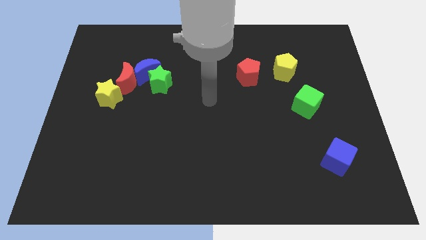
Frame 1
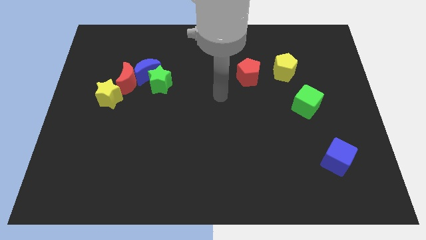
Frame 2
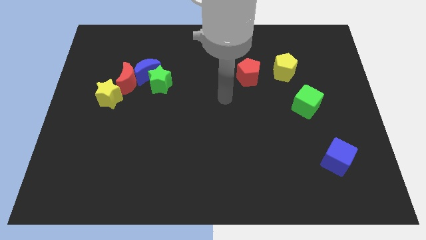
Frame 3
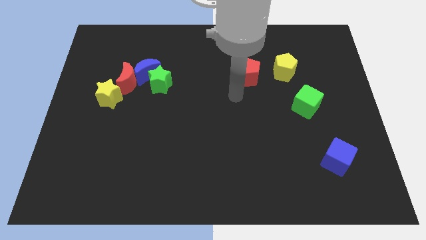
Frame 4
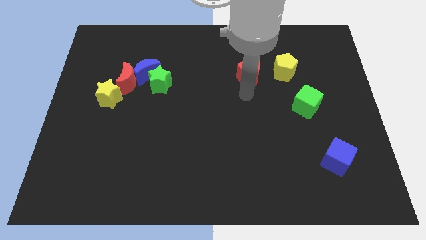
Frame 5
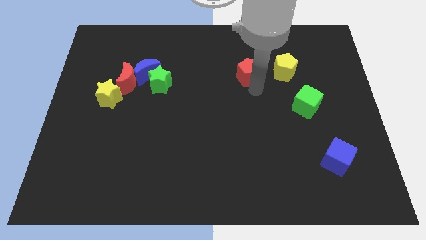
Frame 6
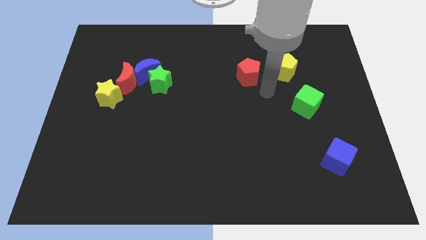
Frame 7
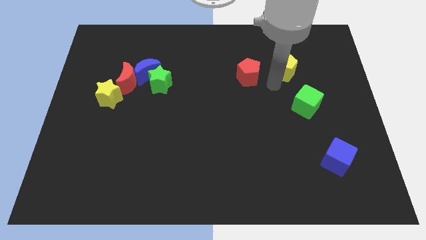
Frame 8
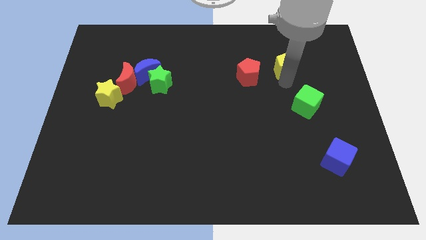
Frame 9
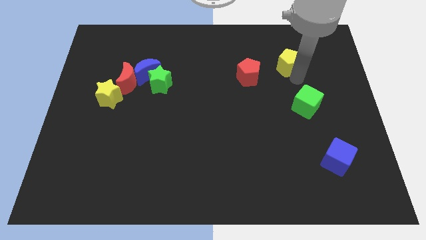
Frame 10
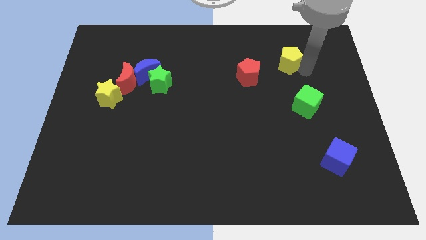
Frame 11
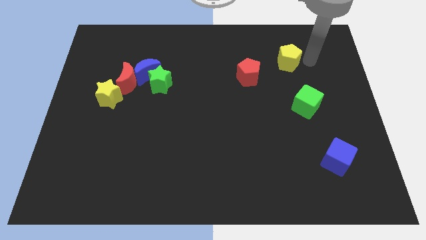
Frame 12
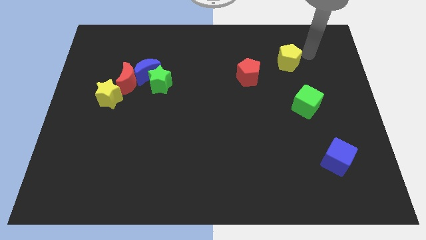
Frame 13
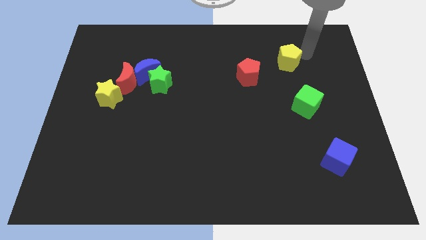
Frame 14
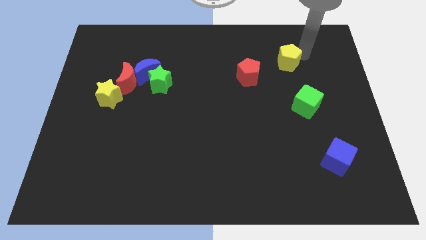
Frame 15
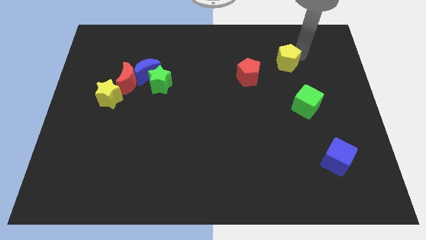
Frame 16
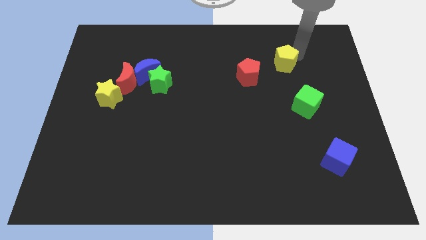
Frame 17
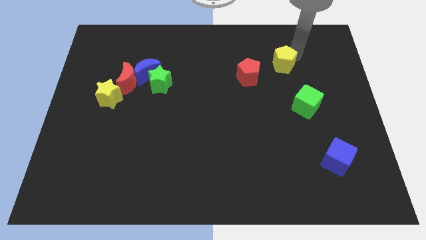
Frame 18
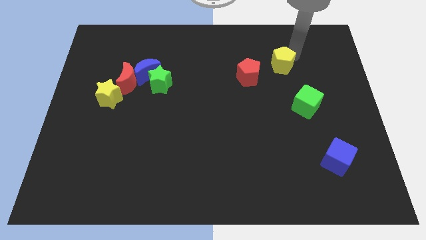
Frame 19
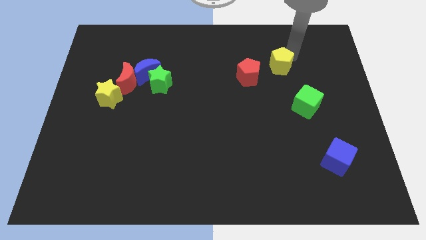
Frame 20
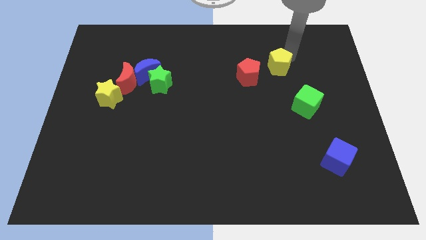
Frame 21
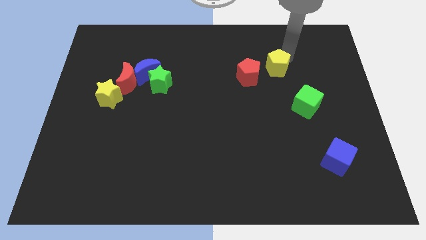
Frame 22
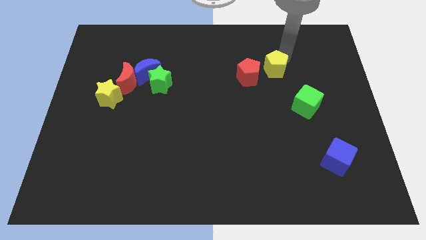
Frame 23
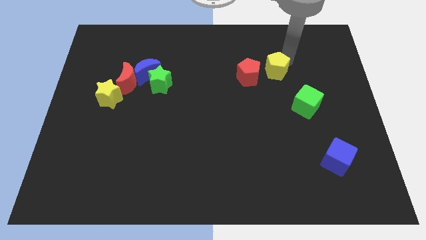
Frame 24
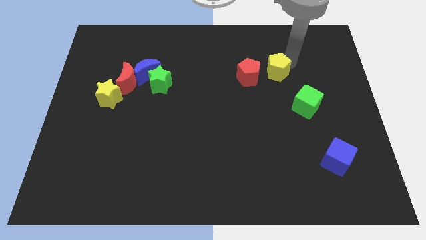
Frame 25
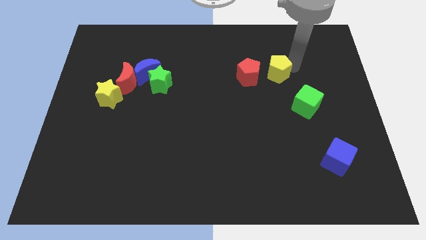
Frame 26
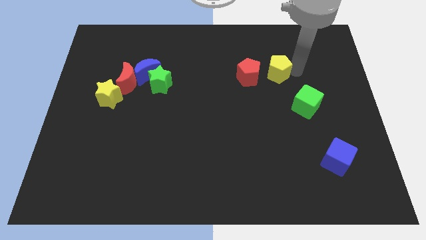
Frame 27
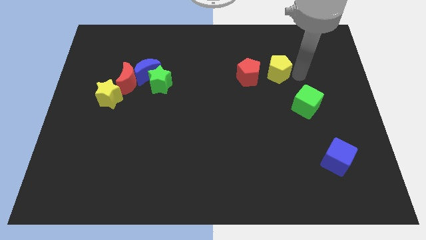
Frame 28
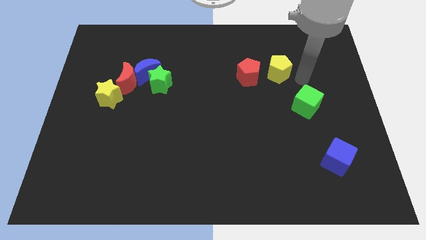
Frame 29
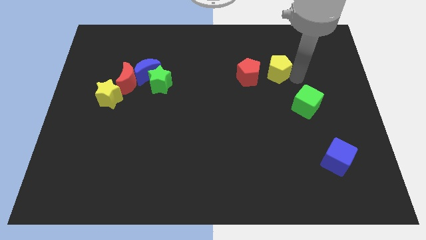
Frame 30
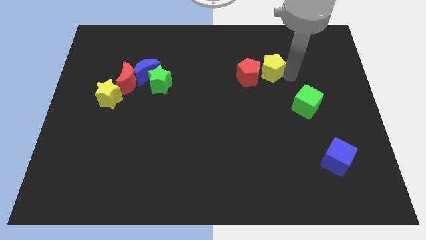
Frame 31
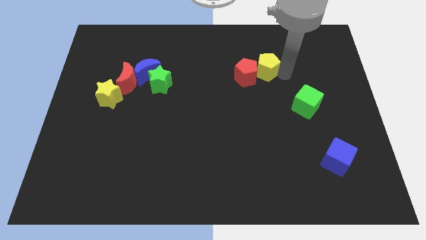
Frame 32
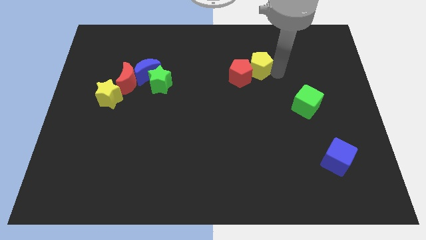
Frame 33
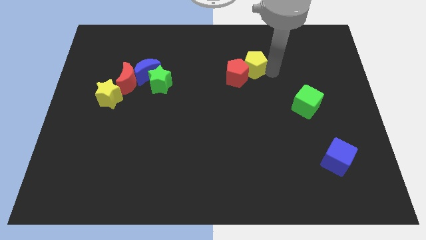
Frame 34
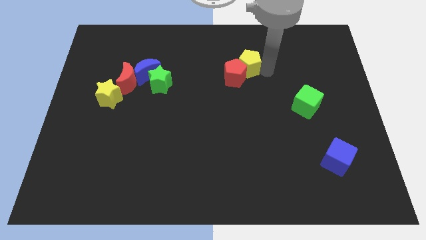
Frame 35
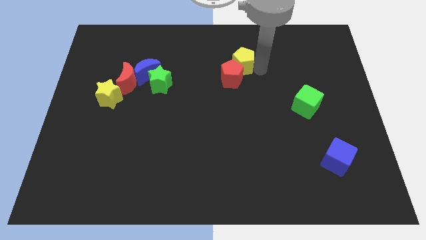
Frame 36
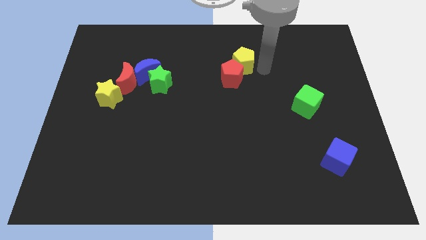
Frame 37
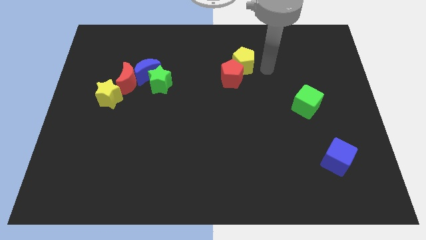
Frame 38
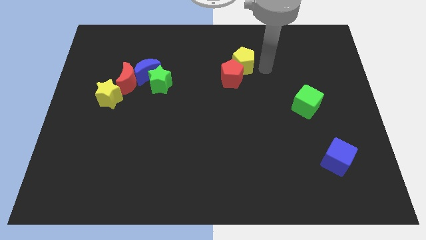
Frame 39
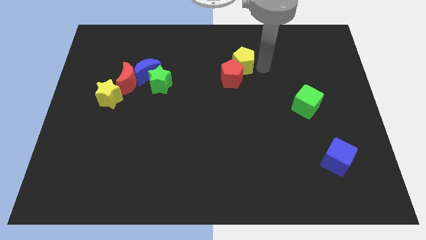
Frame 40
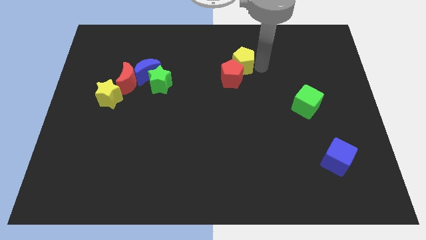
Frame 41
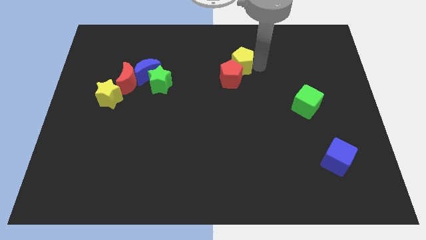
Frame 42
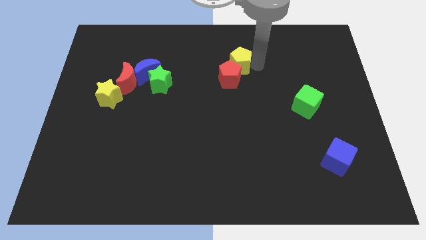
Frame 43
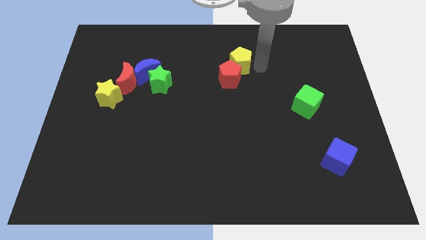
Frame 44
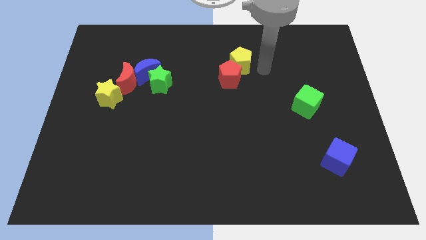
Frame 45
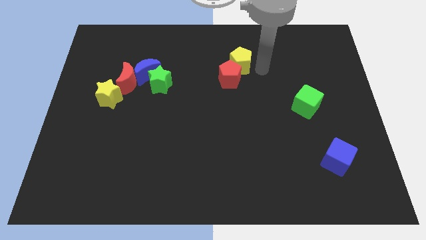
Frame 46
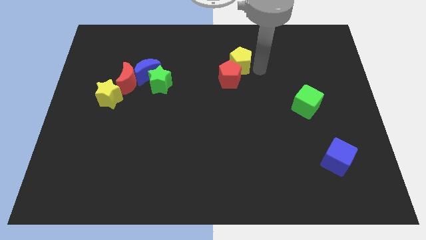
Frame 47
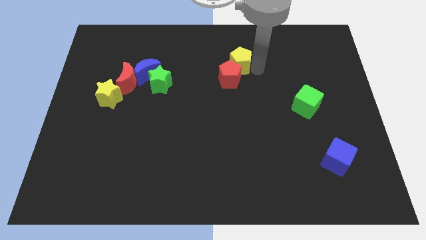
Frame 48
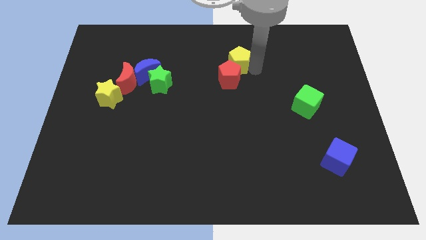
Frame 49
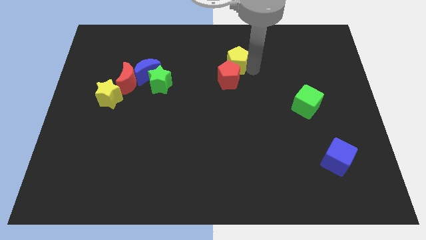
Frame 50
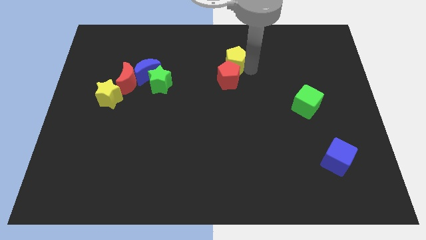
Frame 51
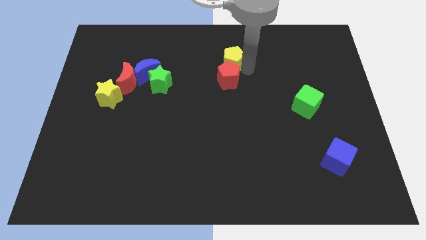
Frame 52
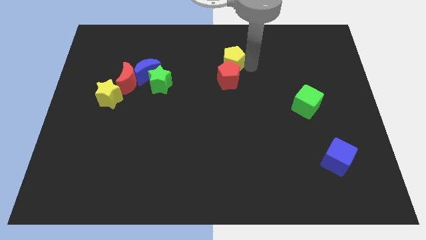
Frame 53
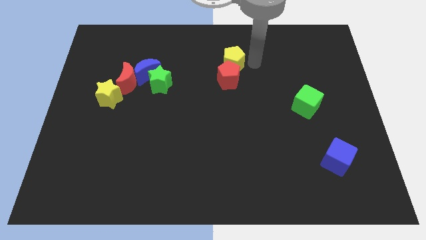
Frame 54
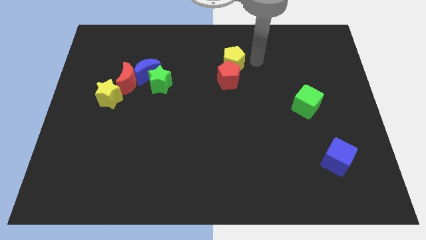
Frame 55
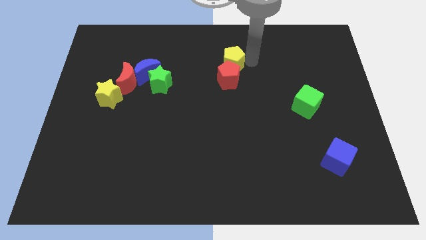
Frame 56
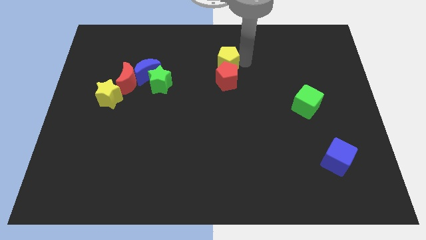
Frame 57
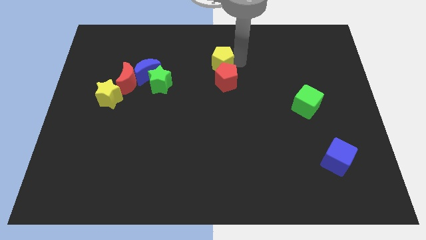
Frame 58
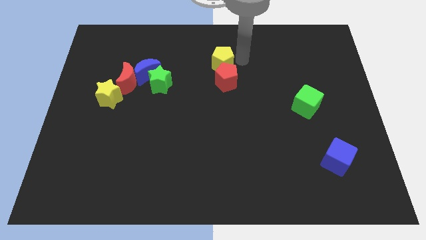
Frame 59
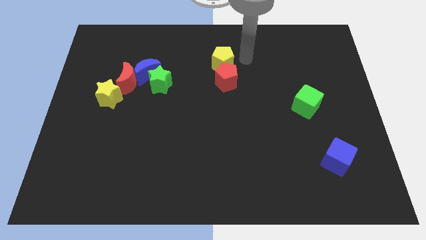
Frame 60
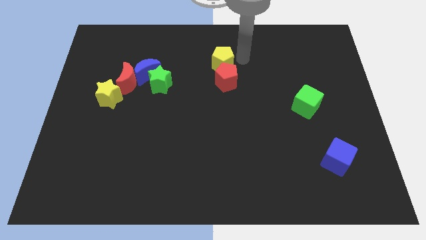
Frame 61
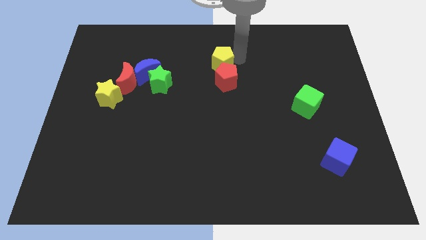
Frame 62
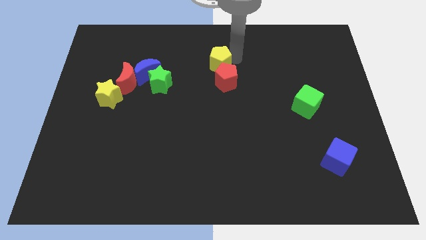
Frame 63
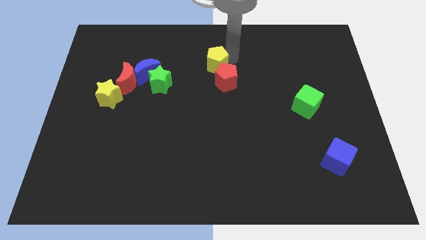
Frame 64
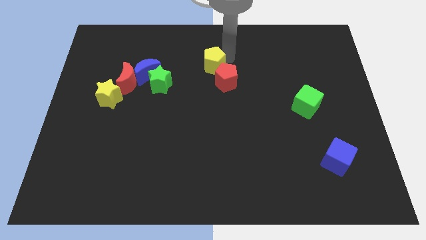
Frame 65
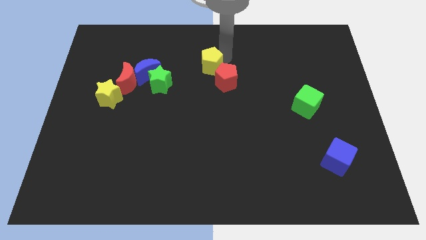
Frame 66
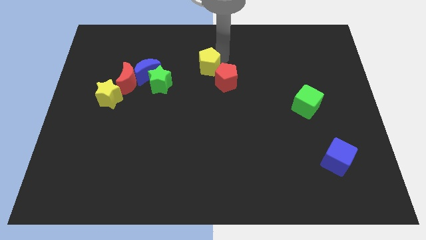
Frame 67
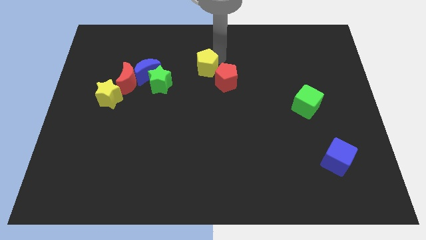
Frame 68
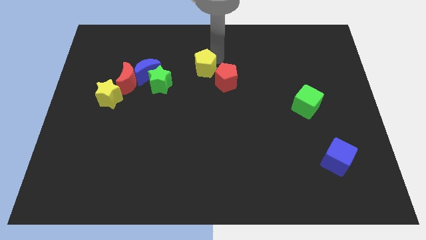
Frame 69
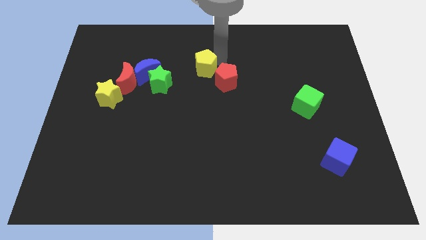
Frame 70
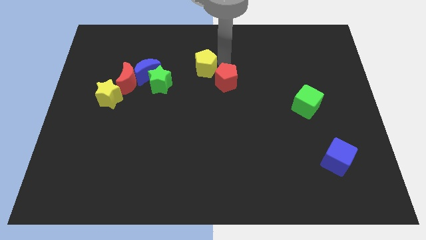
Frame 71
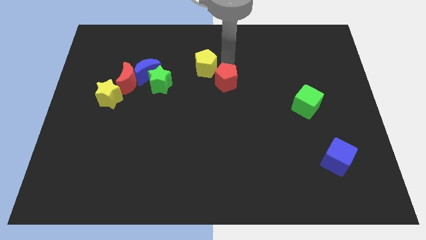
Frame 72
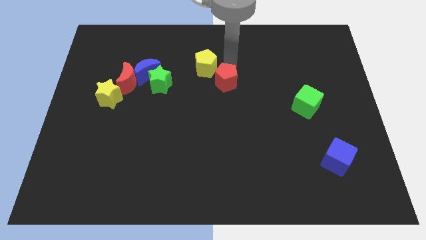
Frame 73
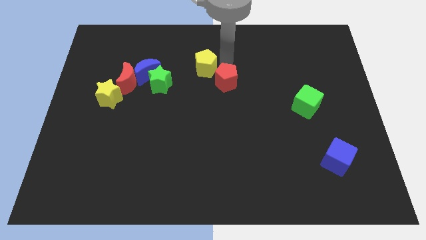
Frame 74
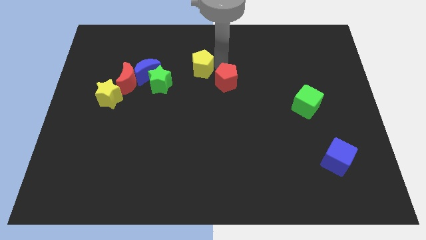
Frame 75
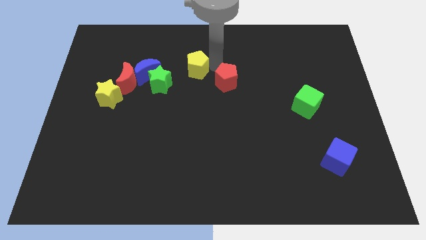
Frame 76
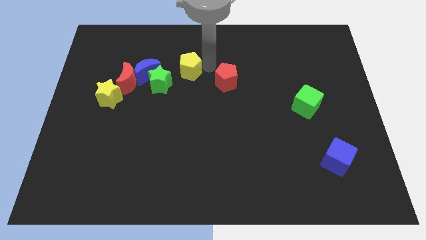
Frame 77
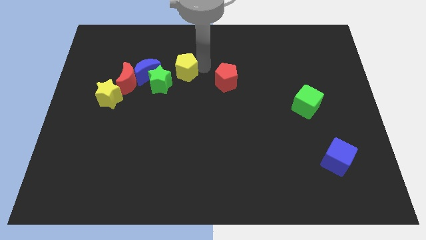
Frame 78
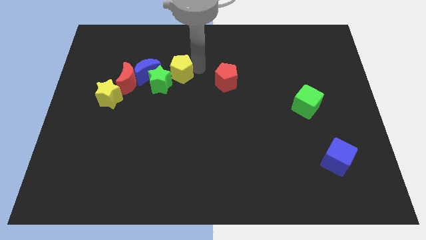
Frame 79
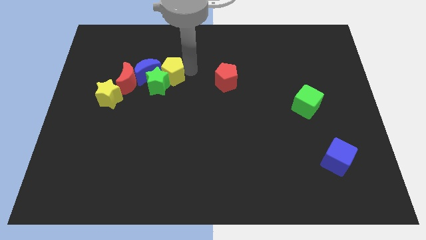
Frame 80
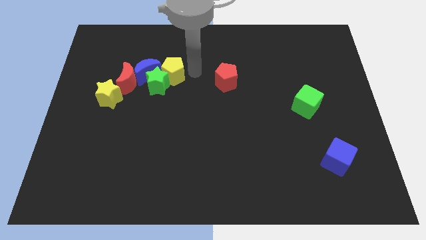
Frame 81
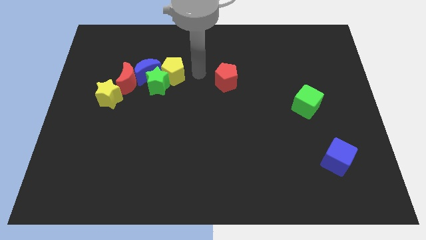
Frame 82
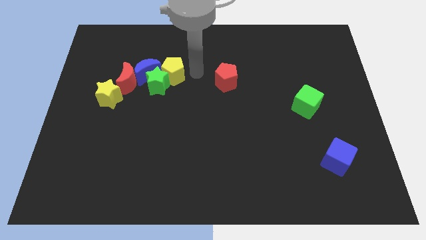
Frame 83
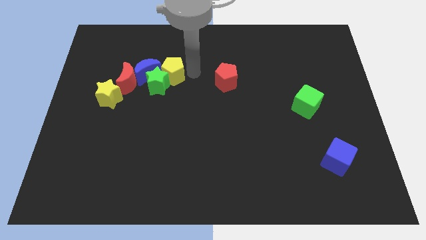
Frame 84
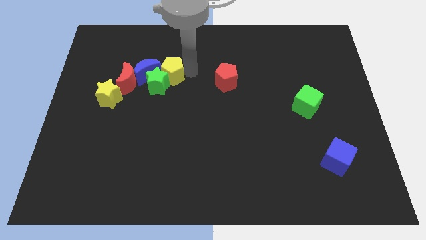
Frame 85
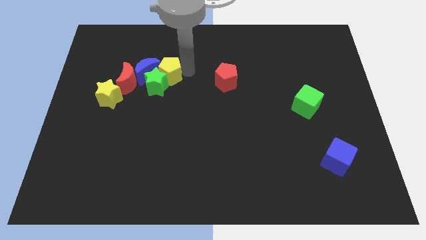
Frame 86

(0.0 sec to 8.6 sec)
push the yellow pentagon close to the blue moon
